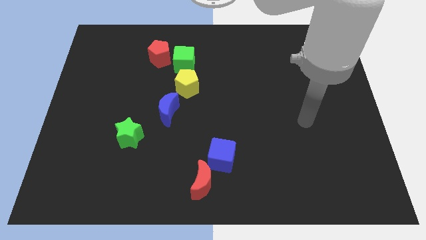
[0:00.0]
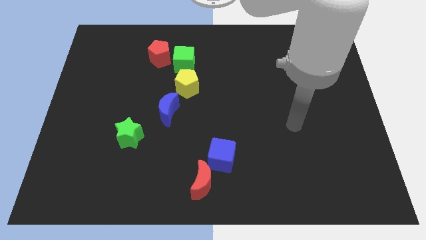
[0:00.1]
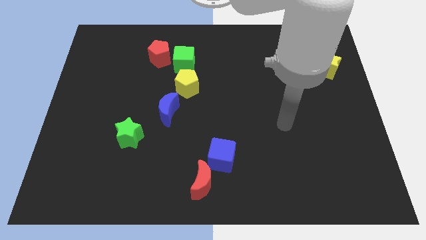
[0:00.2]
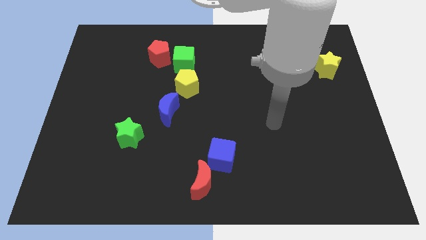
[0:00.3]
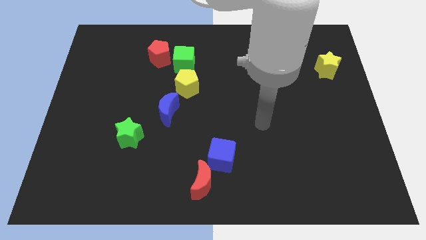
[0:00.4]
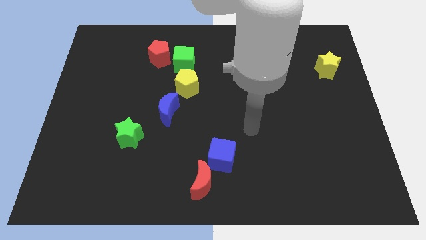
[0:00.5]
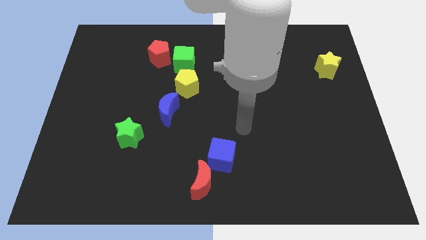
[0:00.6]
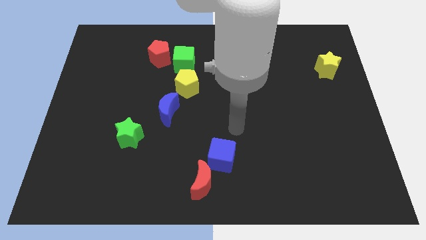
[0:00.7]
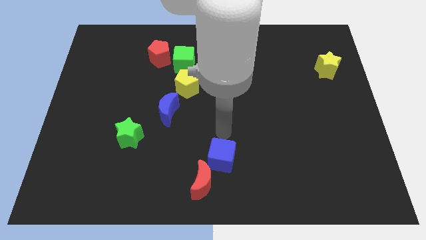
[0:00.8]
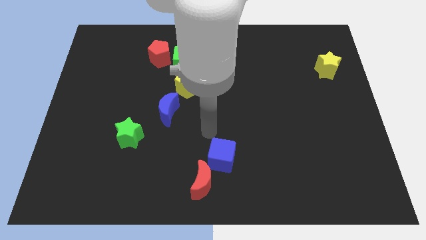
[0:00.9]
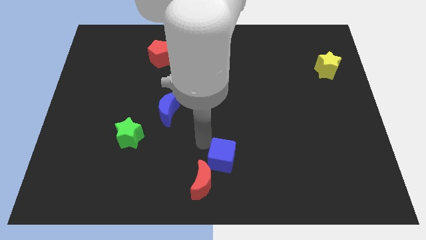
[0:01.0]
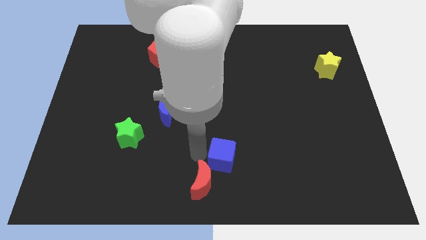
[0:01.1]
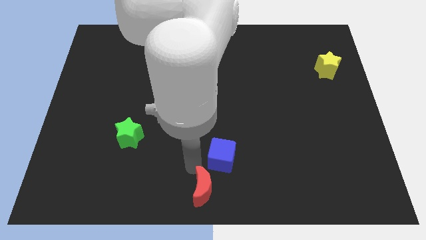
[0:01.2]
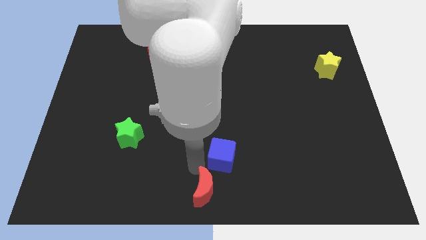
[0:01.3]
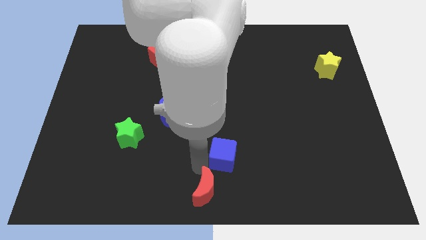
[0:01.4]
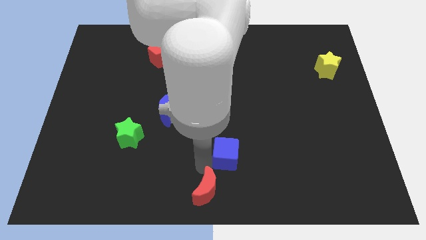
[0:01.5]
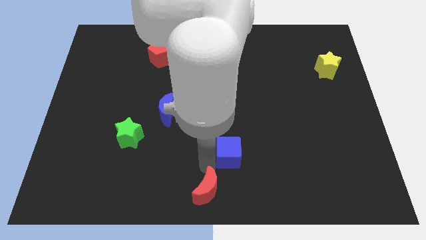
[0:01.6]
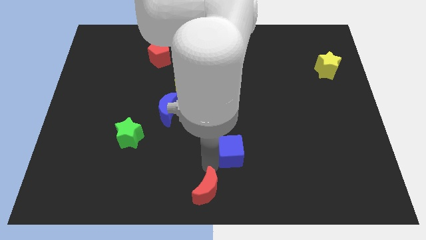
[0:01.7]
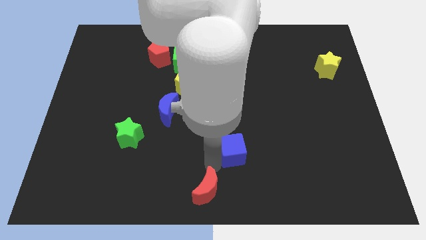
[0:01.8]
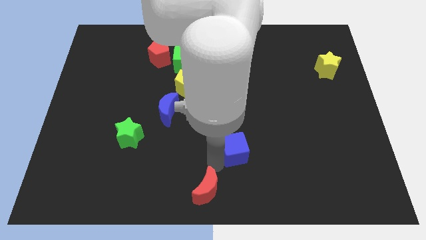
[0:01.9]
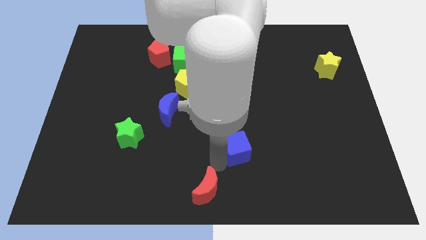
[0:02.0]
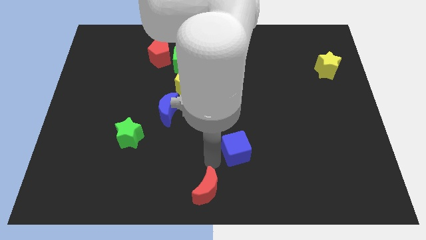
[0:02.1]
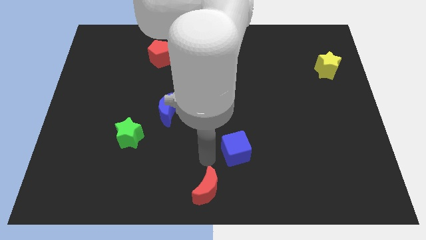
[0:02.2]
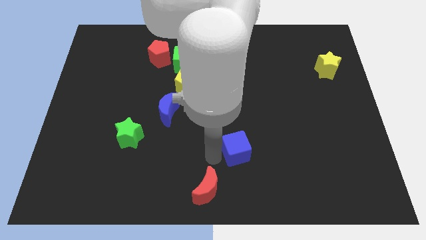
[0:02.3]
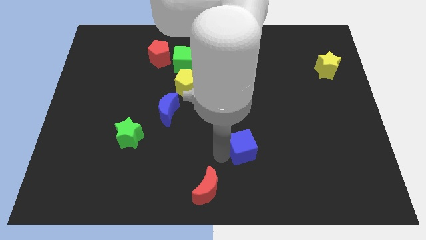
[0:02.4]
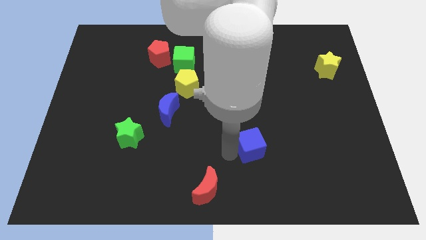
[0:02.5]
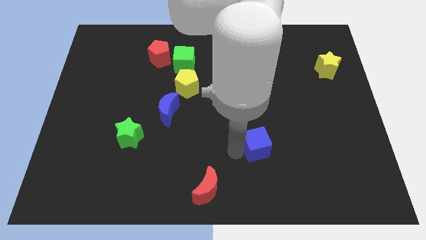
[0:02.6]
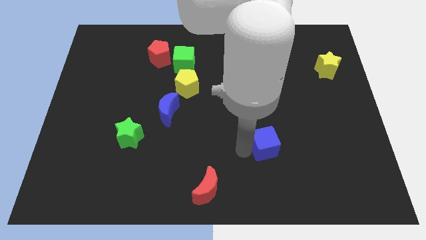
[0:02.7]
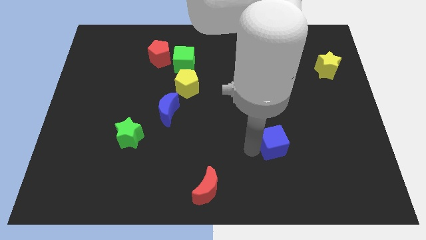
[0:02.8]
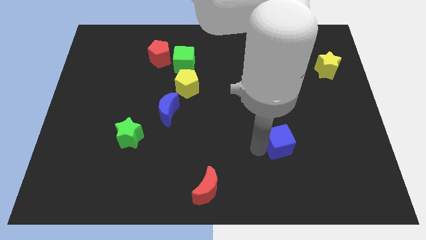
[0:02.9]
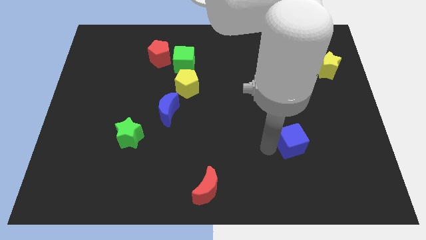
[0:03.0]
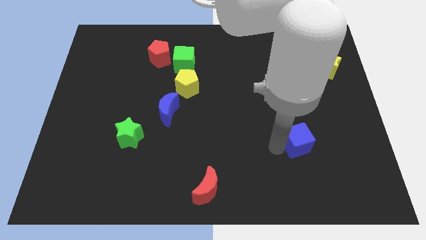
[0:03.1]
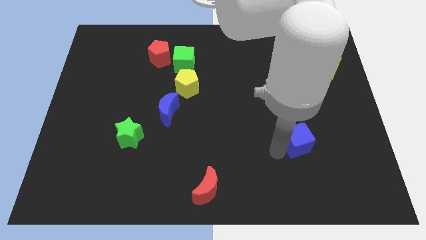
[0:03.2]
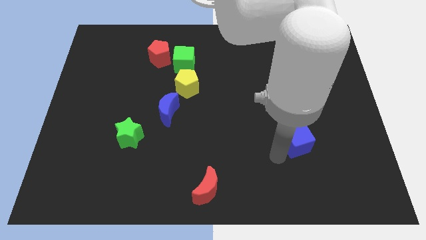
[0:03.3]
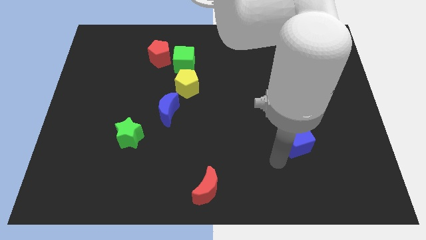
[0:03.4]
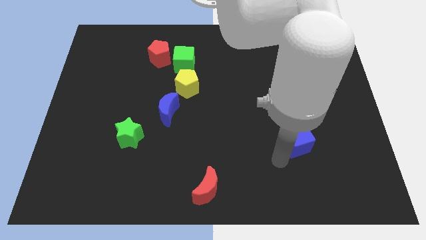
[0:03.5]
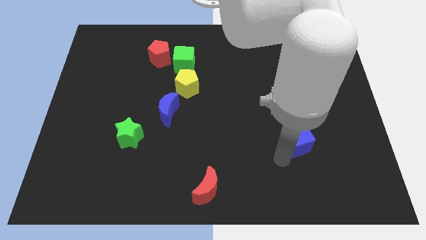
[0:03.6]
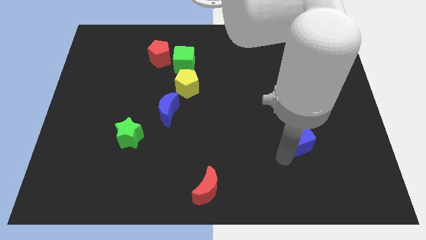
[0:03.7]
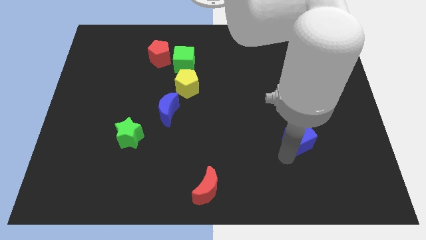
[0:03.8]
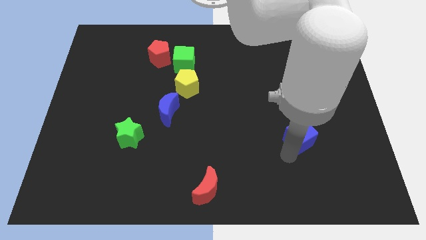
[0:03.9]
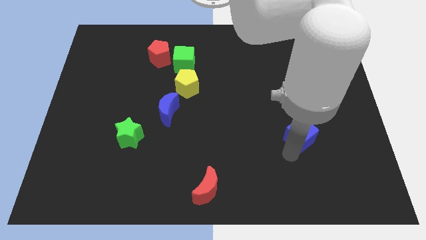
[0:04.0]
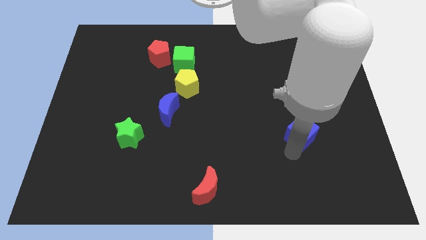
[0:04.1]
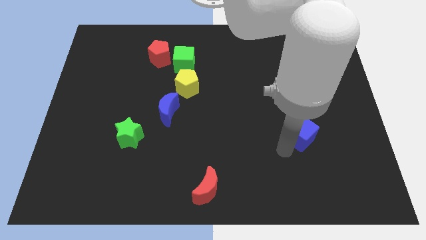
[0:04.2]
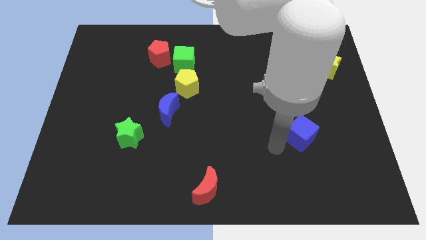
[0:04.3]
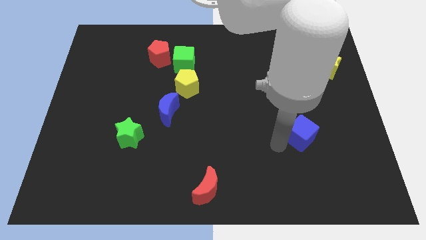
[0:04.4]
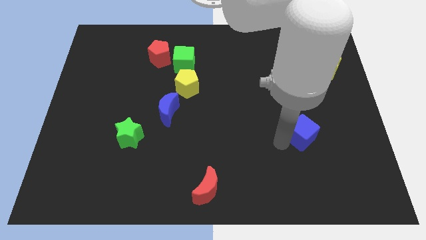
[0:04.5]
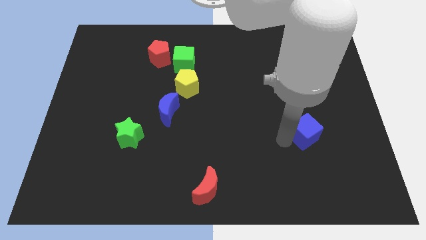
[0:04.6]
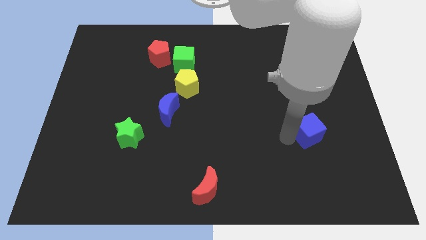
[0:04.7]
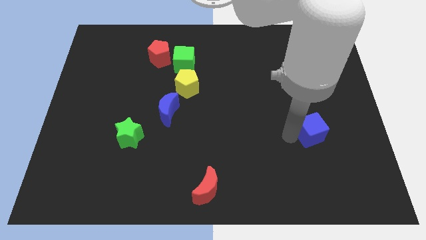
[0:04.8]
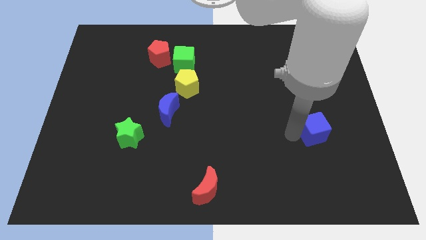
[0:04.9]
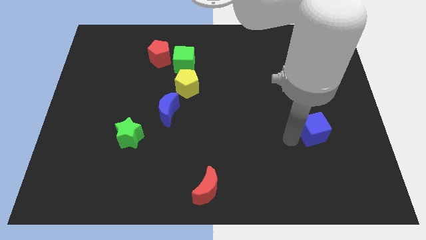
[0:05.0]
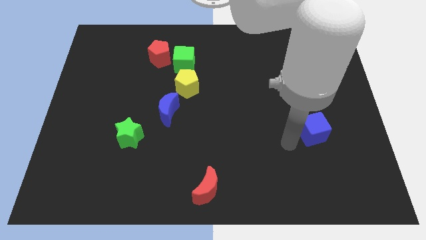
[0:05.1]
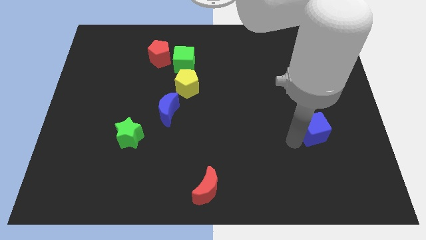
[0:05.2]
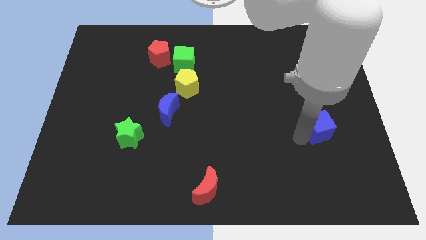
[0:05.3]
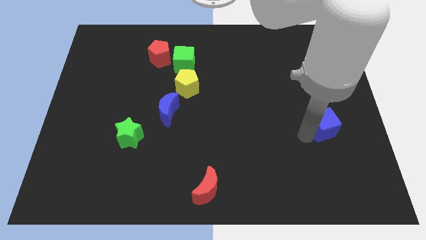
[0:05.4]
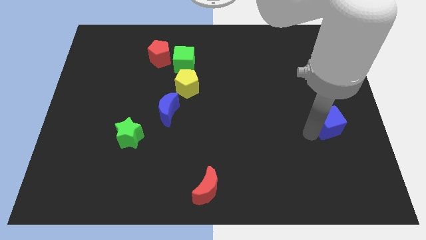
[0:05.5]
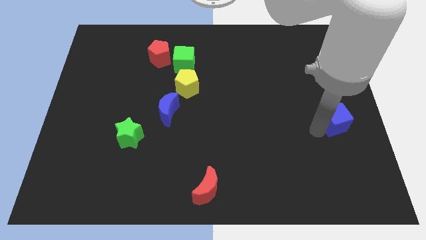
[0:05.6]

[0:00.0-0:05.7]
move the blue cube to the right side of the board
